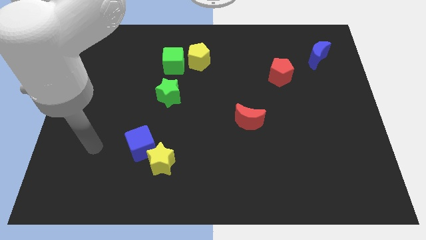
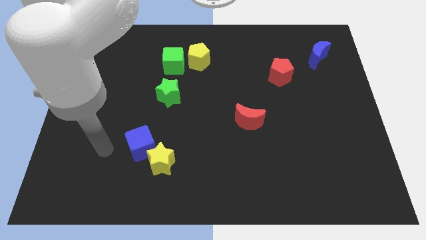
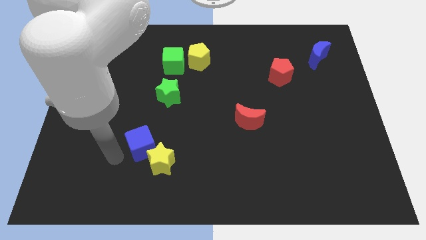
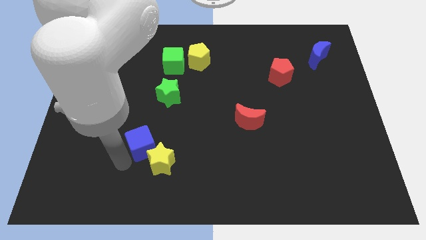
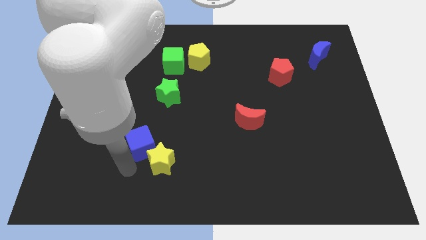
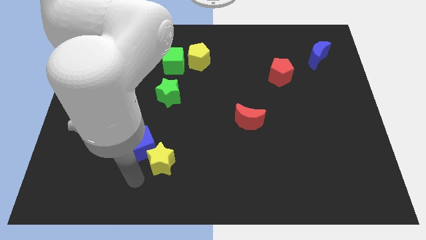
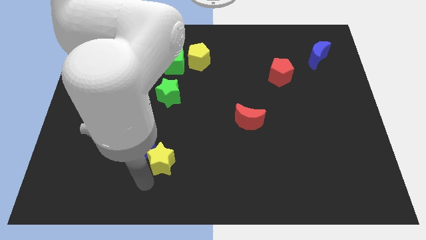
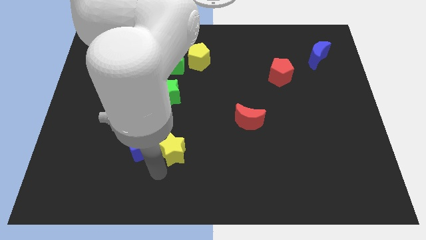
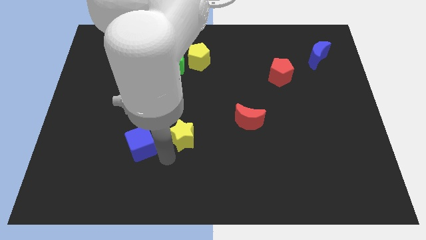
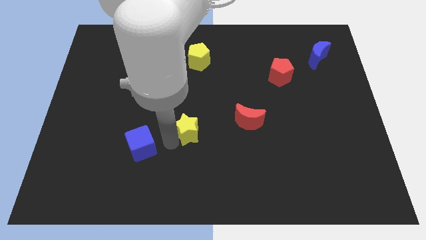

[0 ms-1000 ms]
separate the blue cube from the yellow star

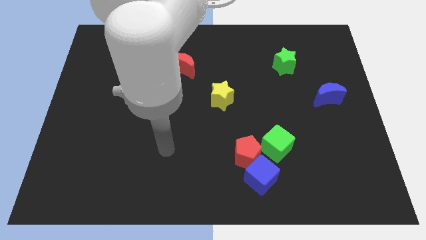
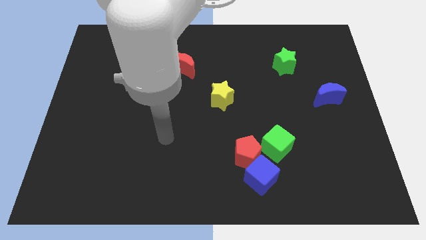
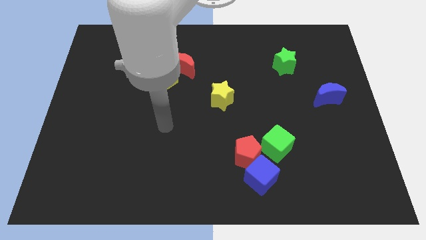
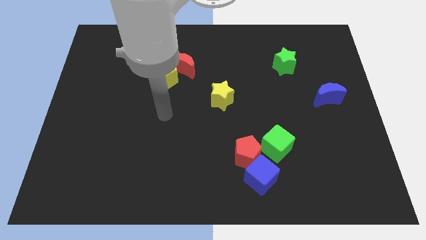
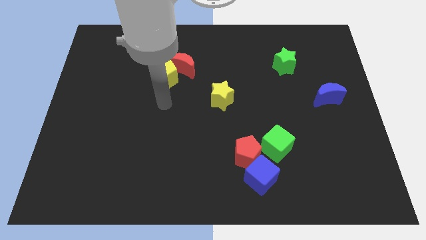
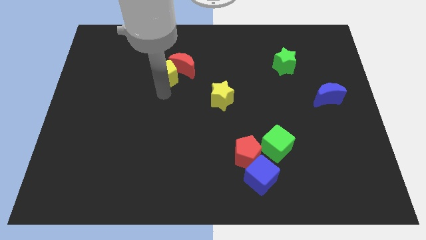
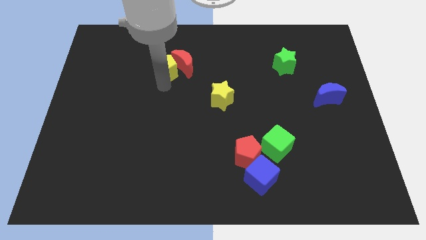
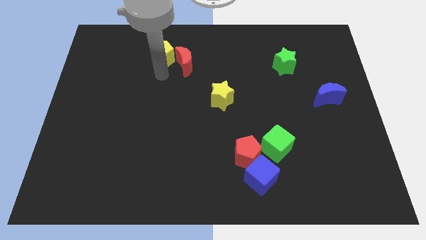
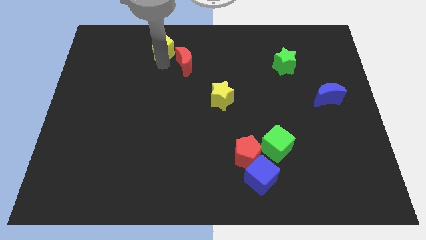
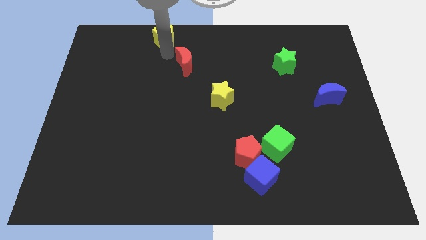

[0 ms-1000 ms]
separate the red moon from the yellow pentagon

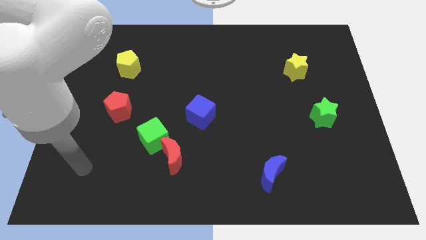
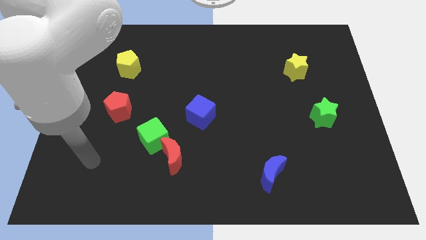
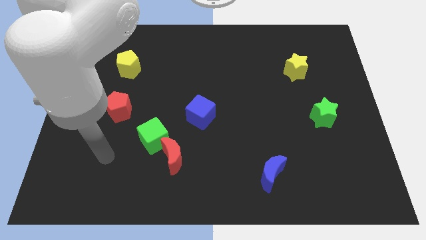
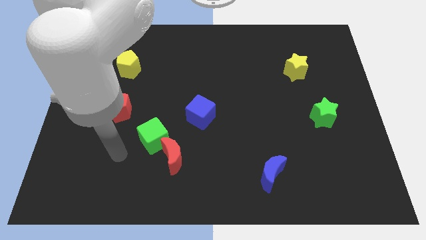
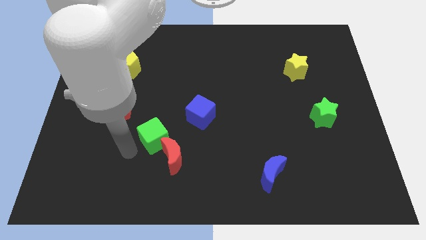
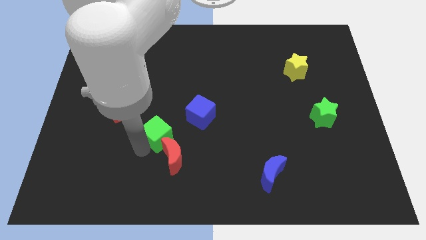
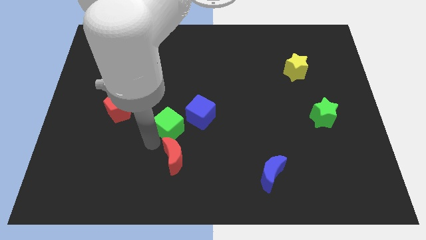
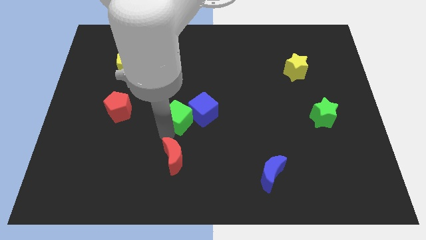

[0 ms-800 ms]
move the red moon away from the green cube

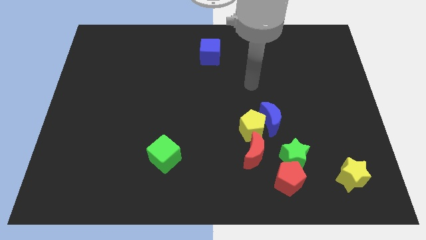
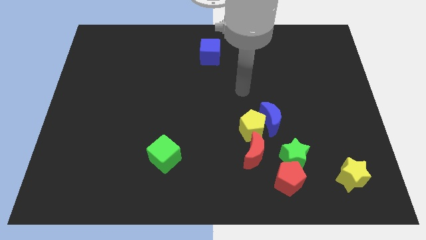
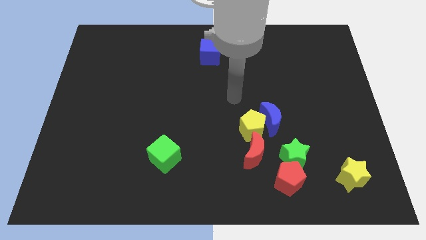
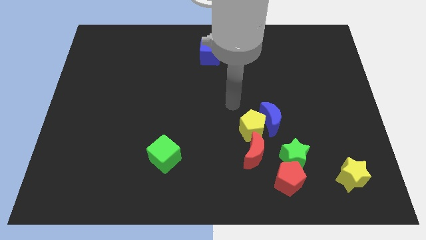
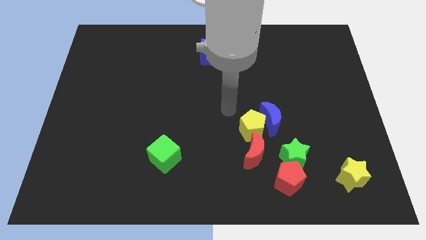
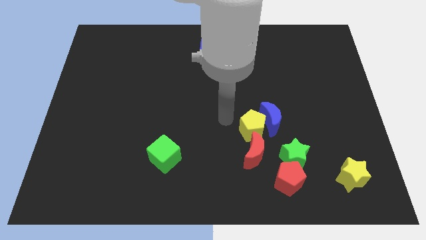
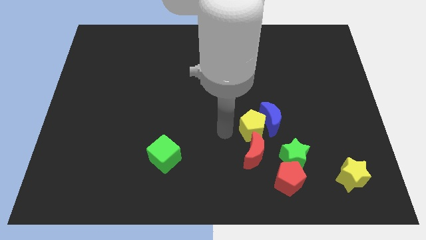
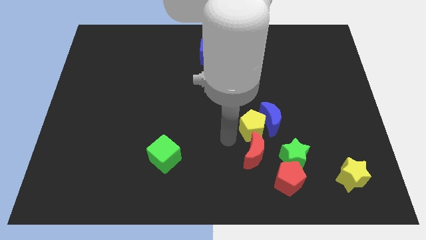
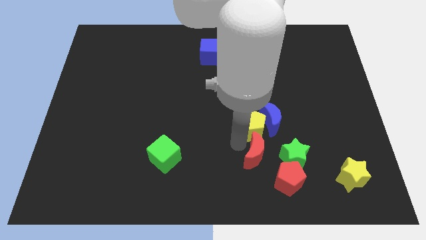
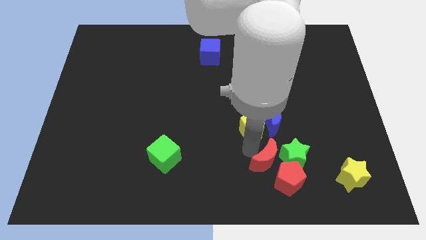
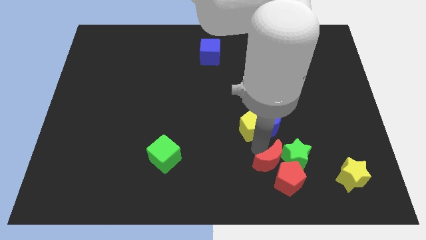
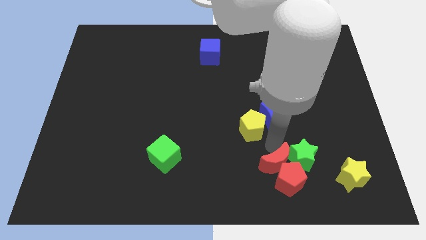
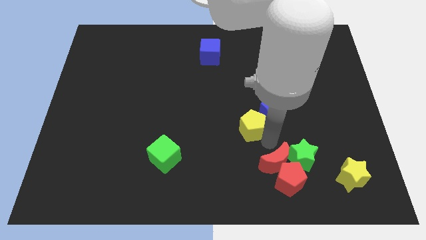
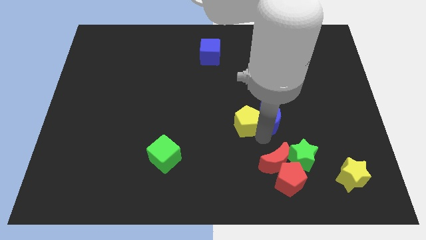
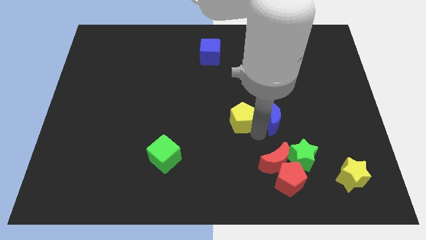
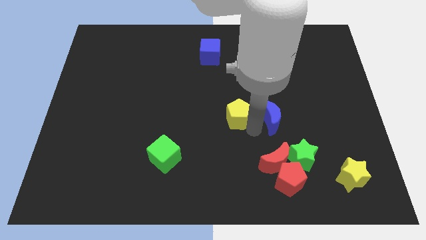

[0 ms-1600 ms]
separate the yellow pentagon from the blue moon and red moon

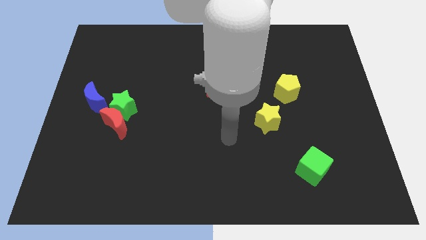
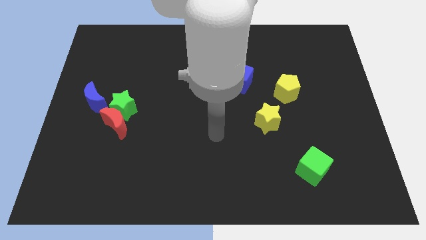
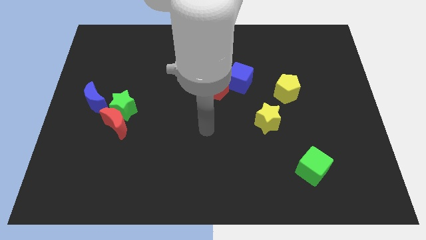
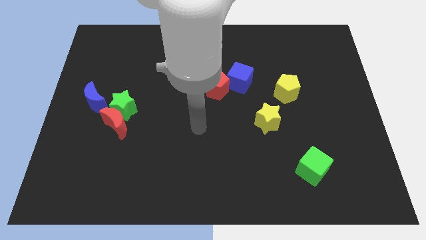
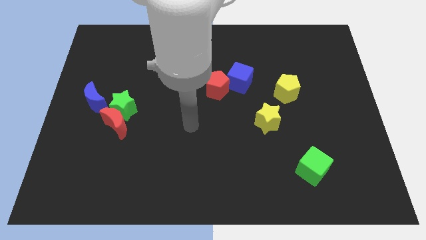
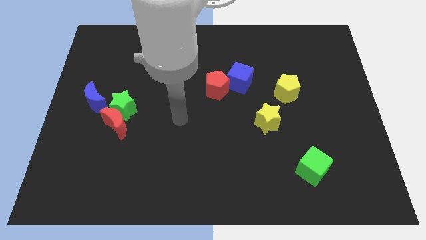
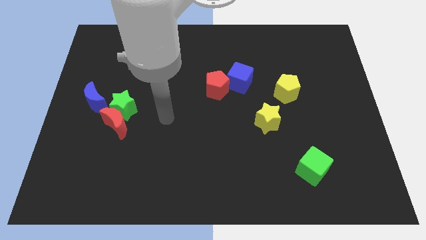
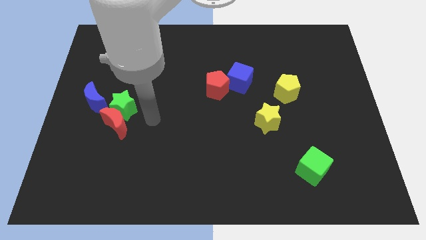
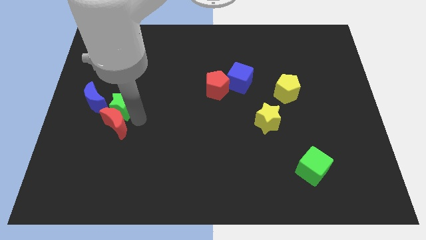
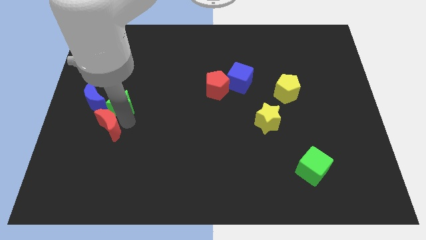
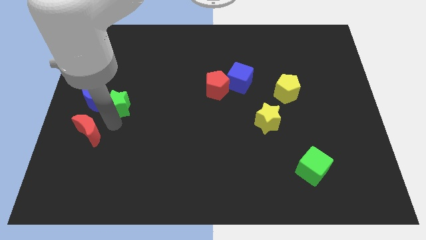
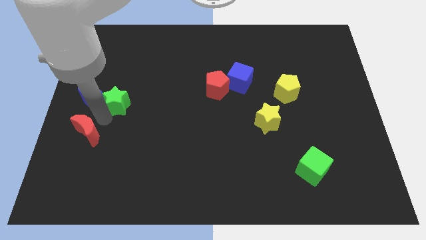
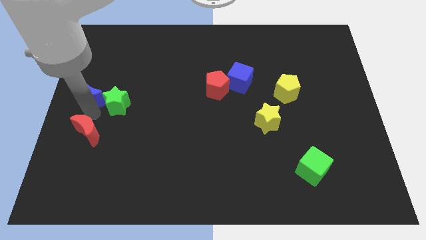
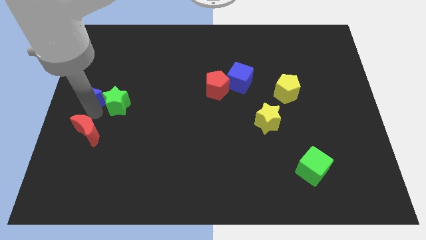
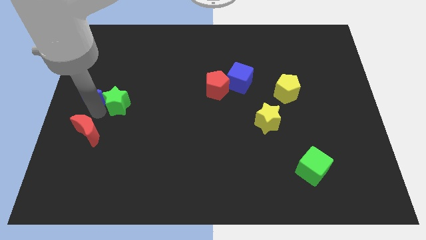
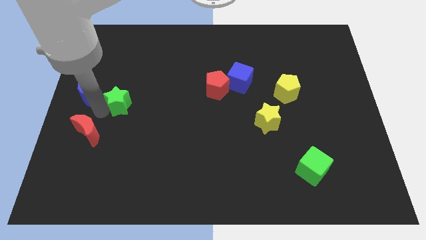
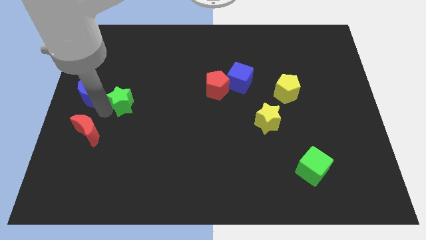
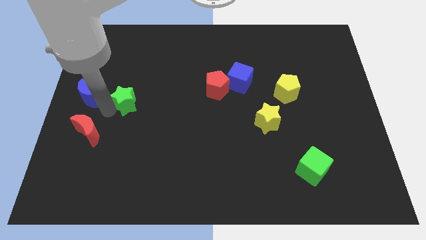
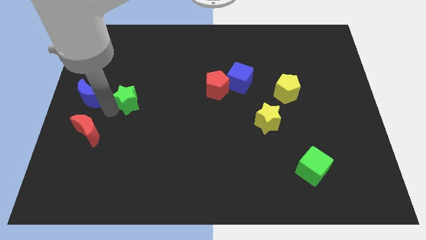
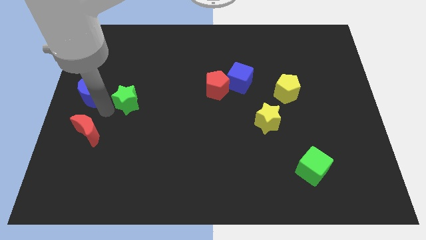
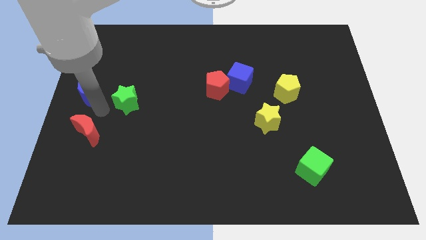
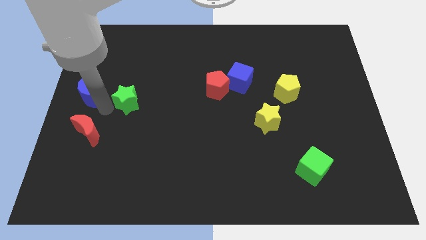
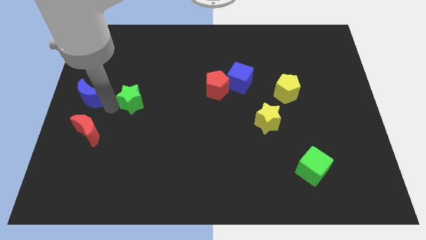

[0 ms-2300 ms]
move the green star away from the red moon and blue moon

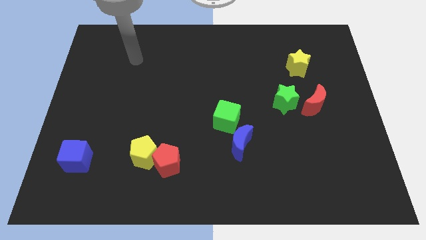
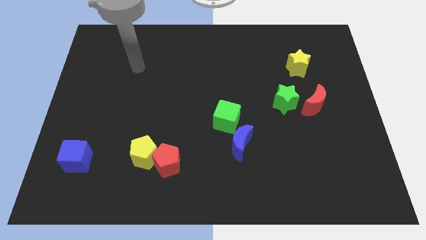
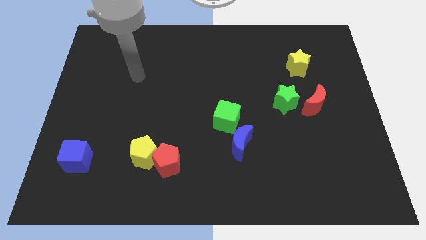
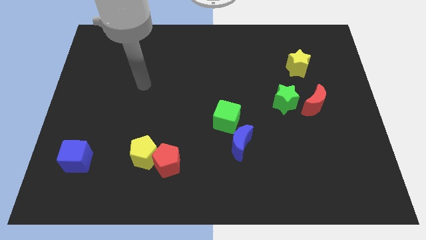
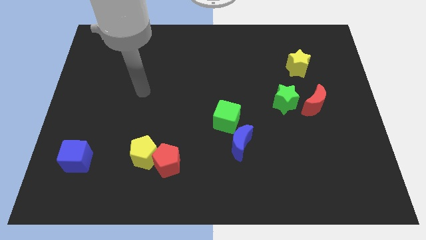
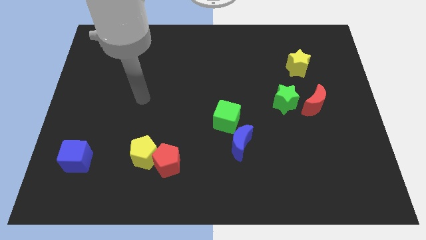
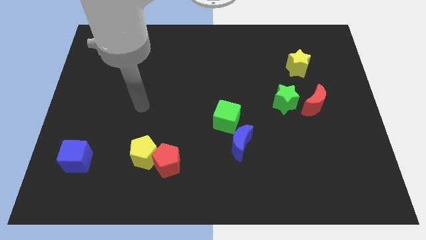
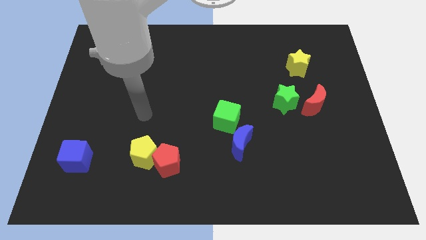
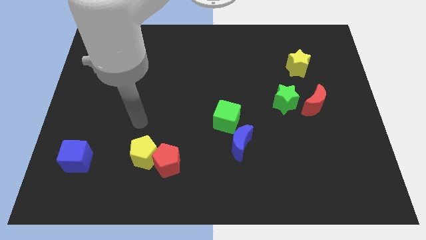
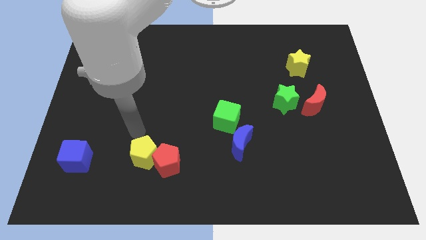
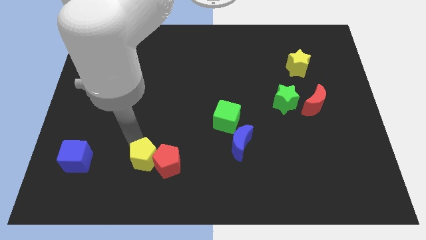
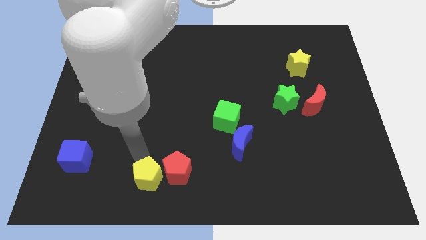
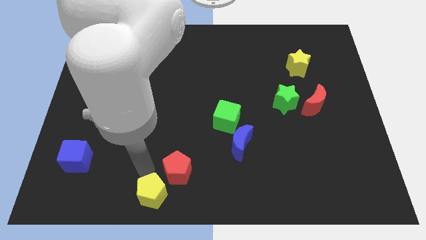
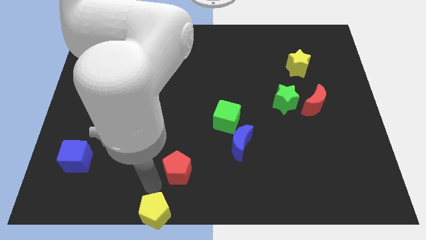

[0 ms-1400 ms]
move the red pentagon away from the yellow pentagon

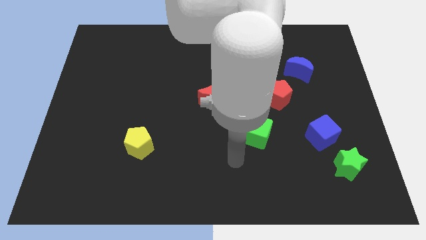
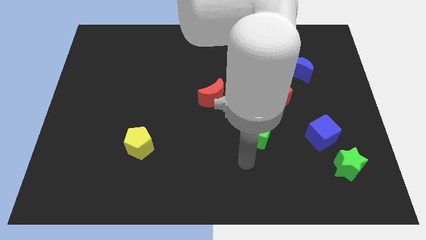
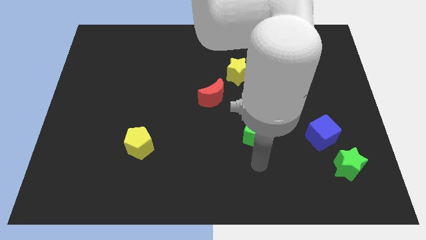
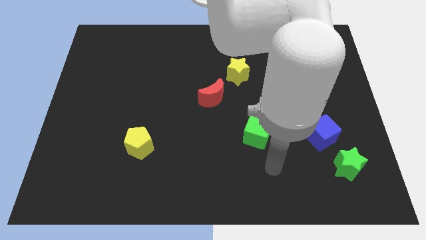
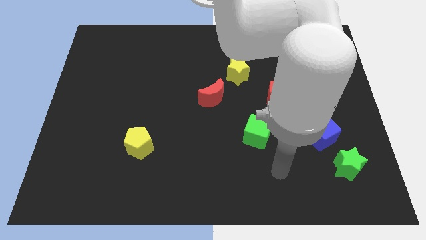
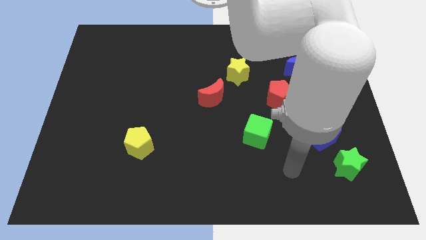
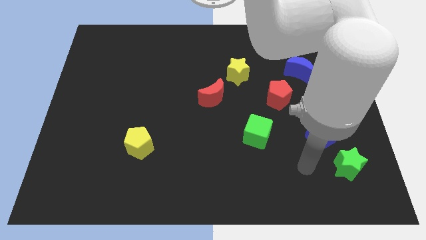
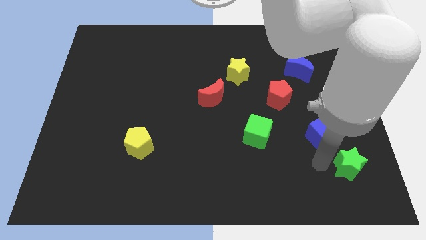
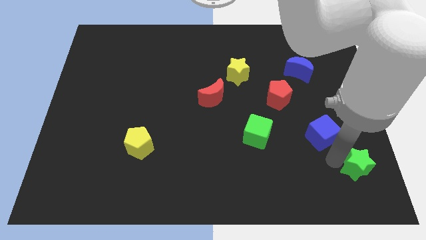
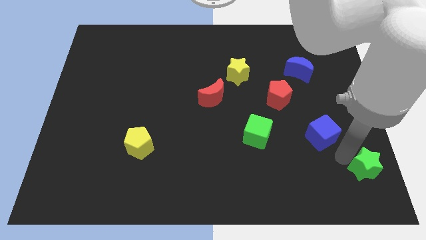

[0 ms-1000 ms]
separate the blue cube from the green star

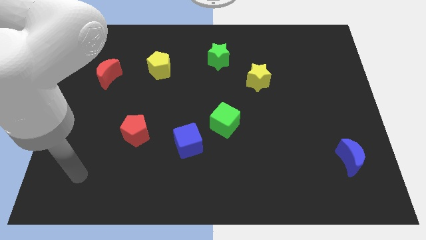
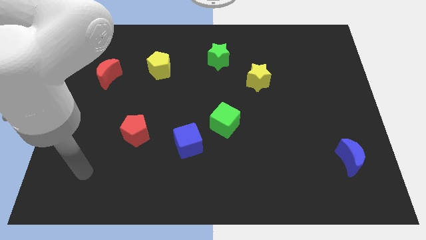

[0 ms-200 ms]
move the blue cube away from the green cube
